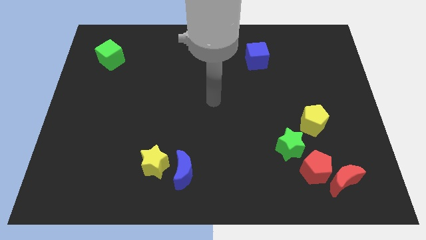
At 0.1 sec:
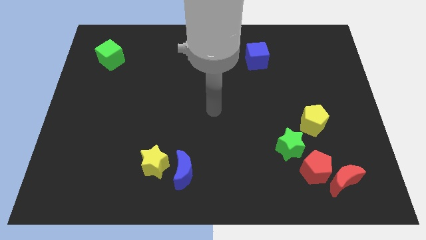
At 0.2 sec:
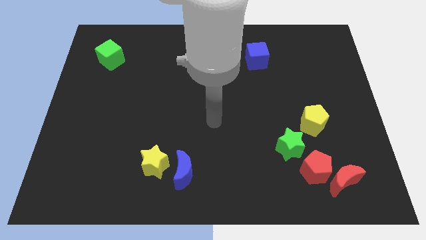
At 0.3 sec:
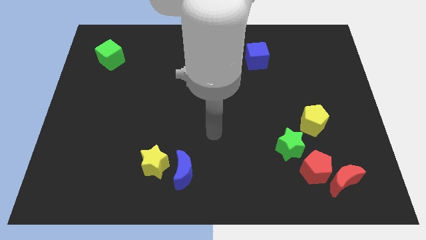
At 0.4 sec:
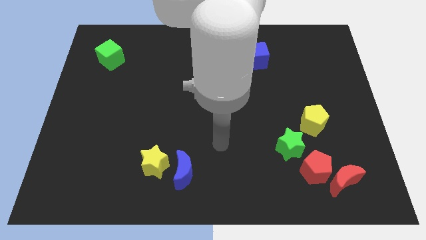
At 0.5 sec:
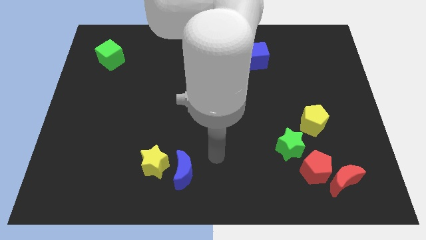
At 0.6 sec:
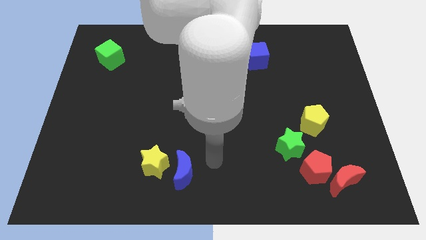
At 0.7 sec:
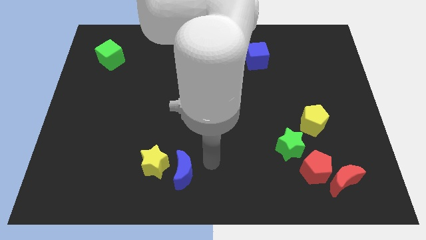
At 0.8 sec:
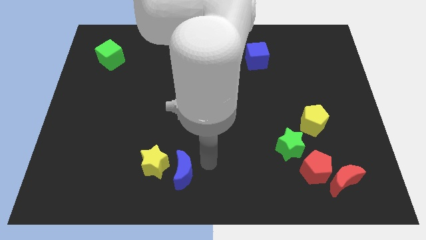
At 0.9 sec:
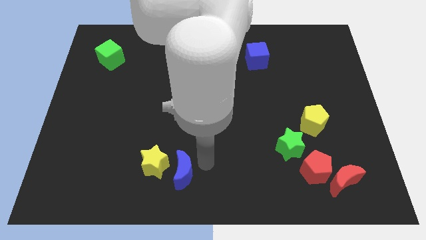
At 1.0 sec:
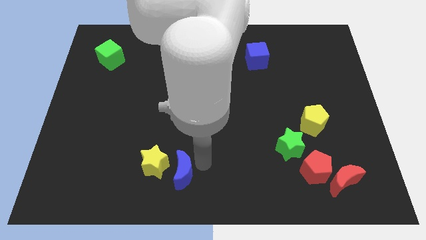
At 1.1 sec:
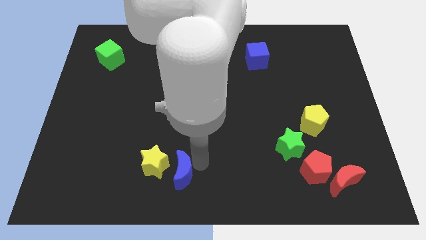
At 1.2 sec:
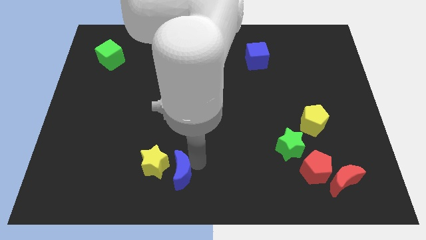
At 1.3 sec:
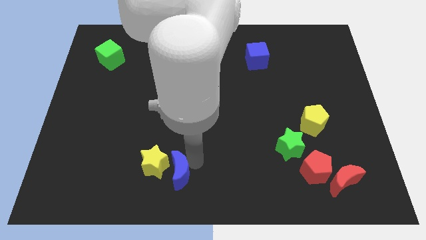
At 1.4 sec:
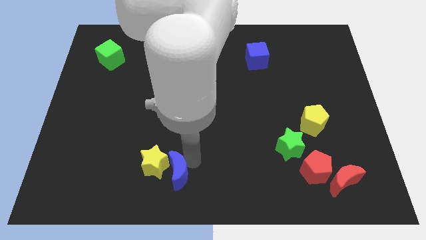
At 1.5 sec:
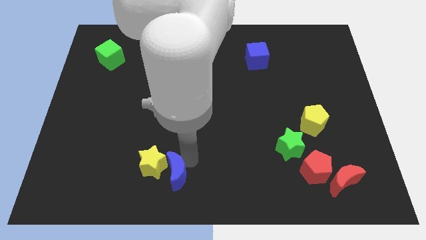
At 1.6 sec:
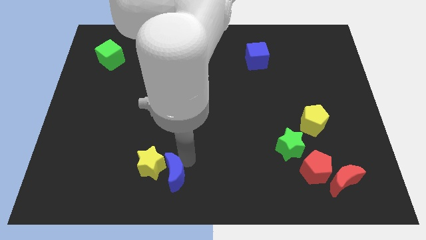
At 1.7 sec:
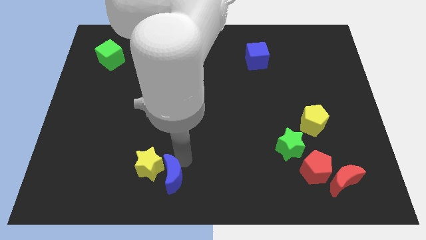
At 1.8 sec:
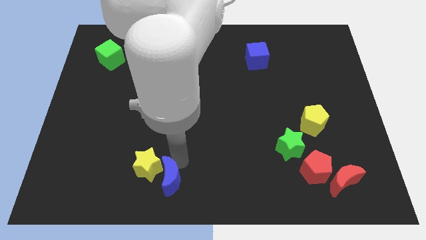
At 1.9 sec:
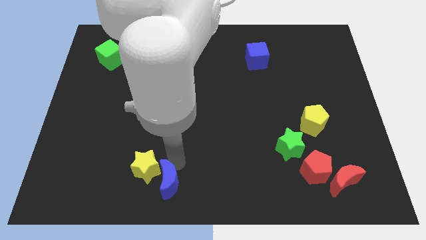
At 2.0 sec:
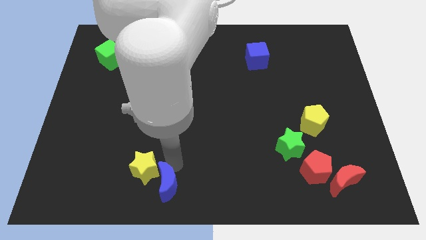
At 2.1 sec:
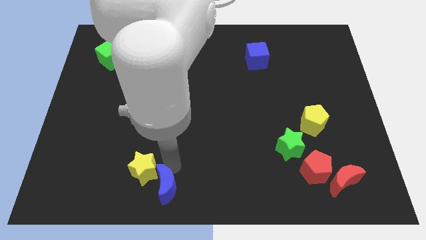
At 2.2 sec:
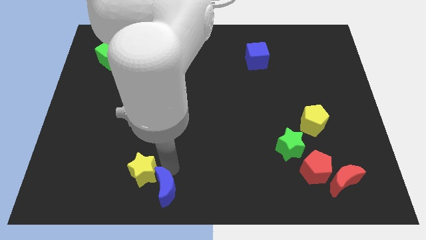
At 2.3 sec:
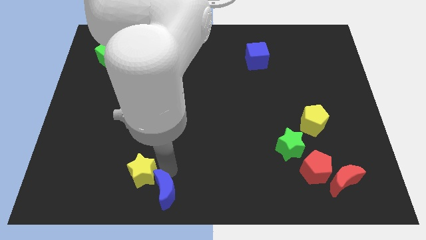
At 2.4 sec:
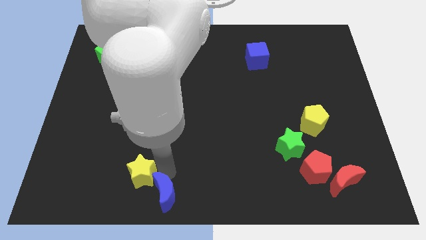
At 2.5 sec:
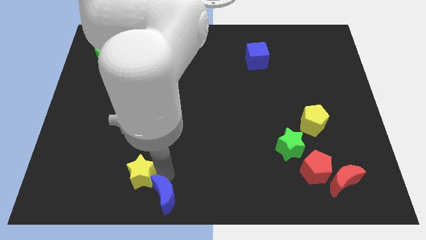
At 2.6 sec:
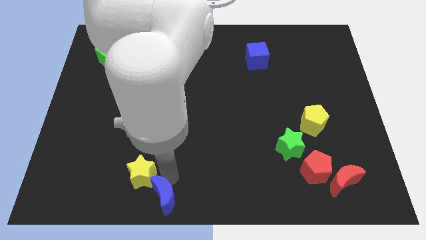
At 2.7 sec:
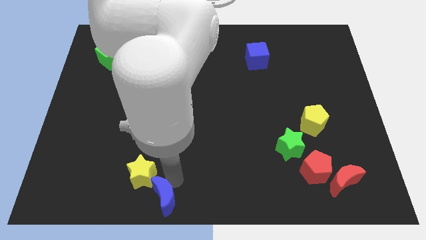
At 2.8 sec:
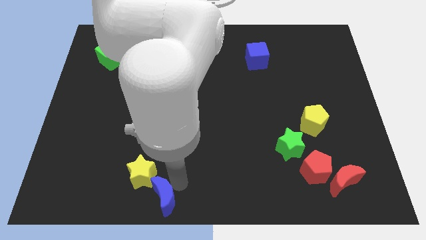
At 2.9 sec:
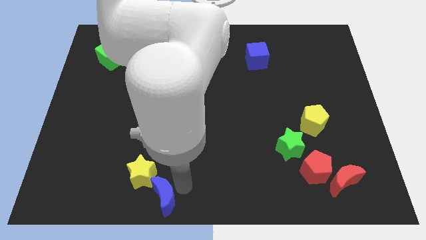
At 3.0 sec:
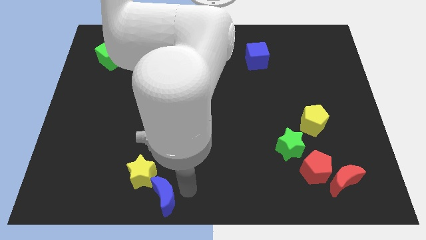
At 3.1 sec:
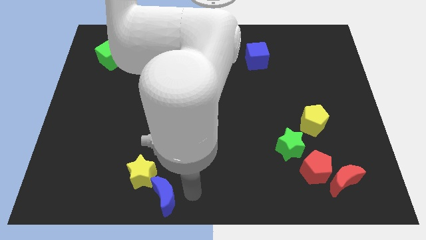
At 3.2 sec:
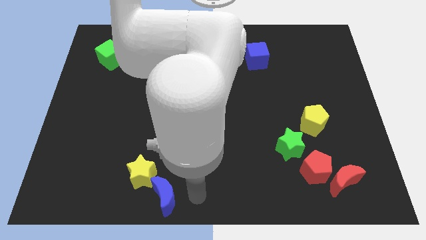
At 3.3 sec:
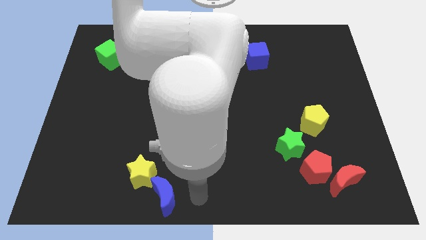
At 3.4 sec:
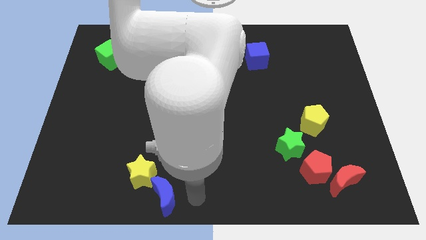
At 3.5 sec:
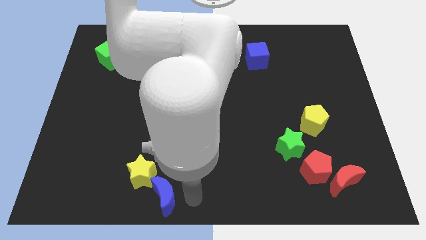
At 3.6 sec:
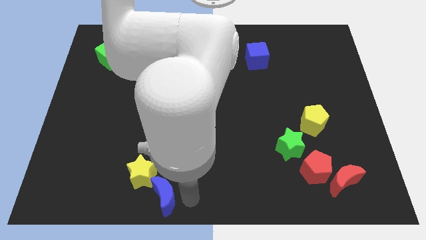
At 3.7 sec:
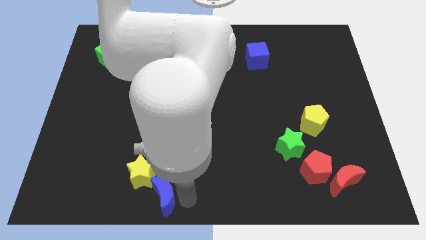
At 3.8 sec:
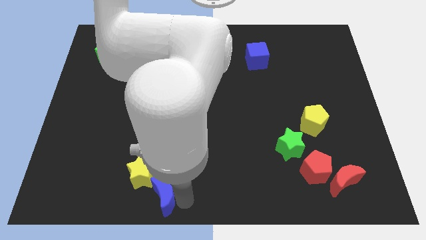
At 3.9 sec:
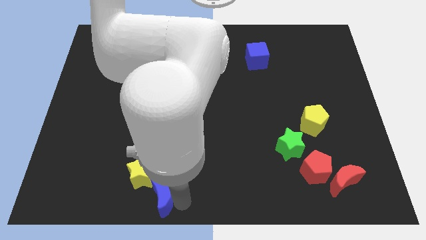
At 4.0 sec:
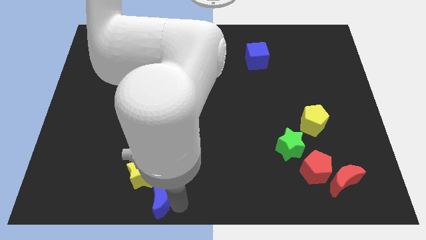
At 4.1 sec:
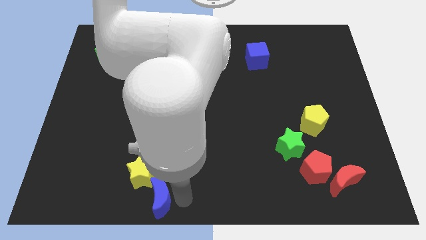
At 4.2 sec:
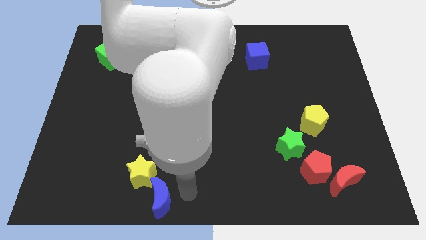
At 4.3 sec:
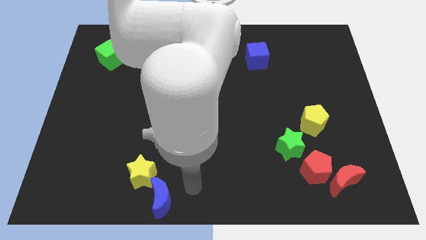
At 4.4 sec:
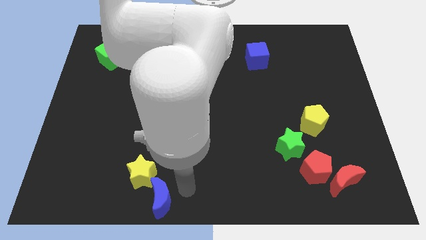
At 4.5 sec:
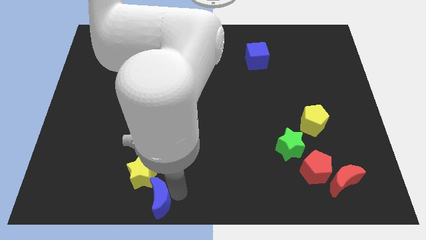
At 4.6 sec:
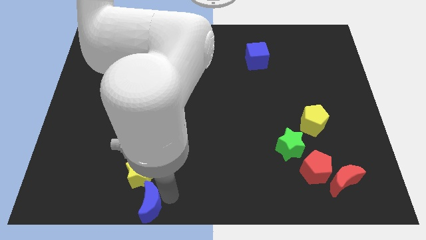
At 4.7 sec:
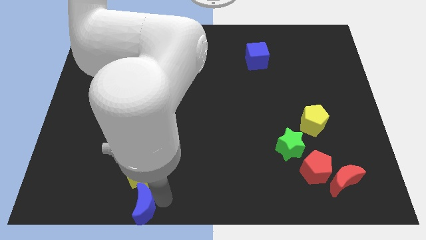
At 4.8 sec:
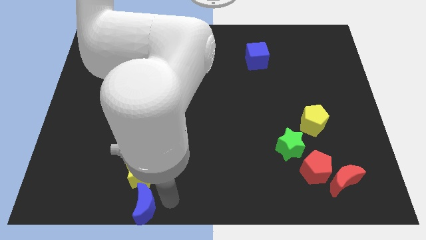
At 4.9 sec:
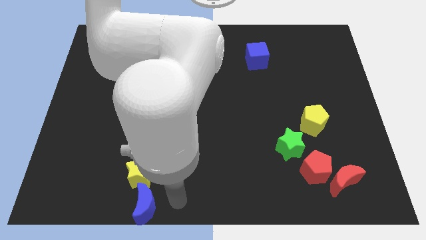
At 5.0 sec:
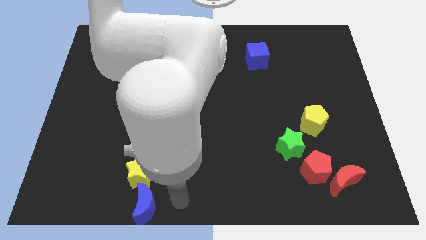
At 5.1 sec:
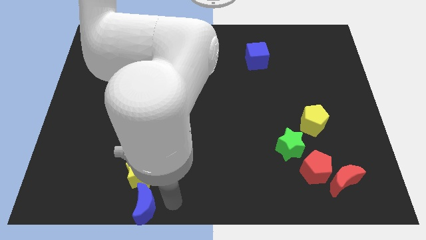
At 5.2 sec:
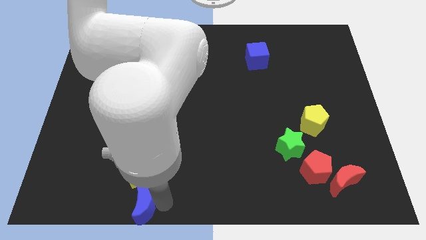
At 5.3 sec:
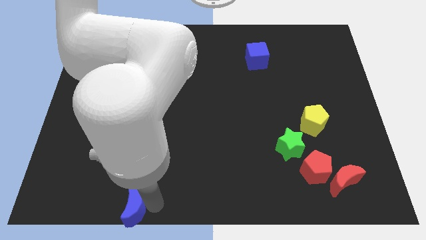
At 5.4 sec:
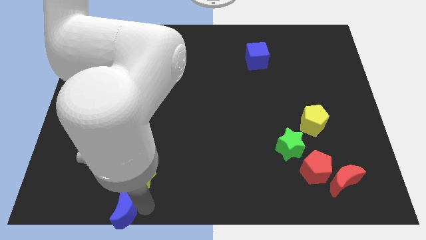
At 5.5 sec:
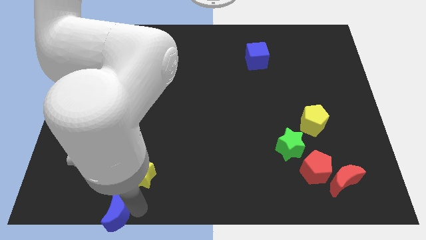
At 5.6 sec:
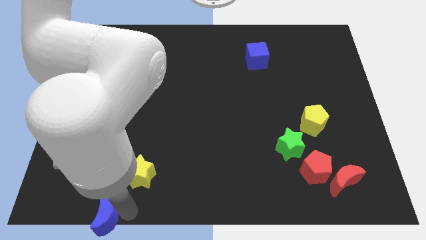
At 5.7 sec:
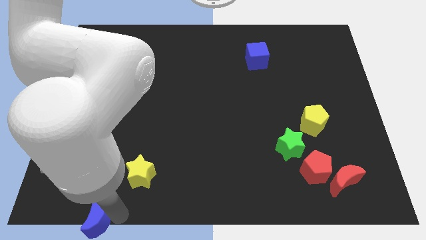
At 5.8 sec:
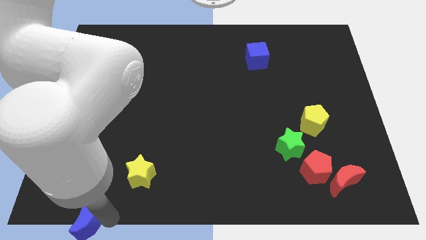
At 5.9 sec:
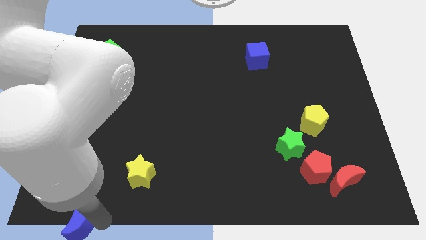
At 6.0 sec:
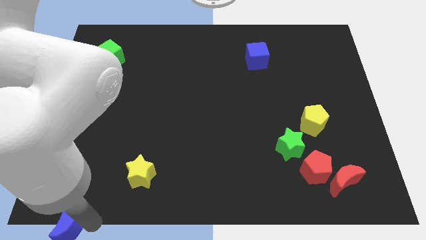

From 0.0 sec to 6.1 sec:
move the blue moon to the bottom left of the board
